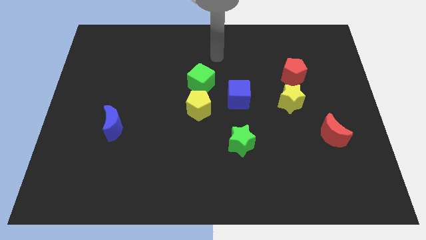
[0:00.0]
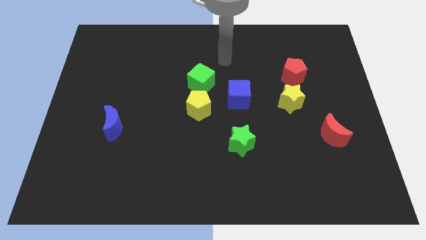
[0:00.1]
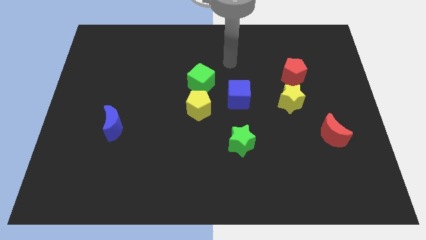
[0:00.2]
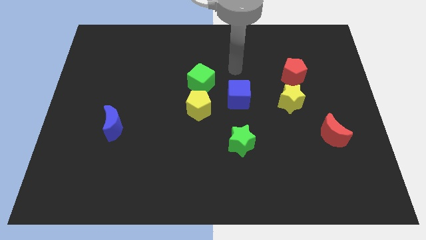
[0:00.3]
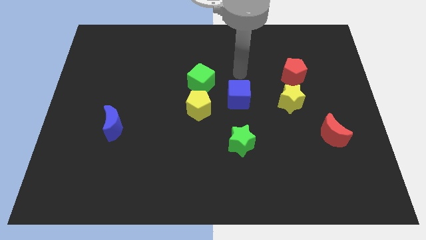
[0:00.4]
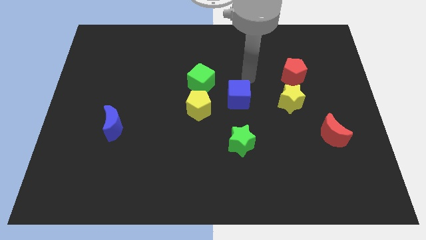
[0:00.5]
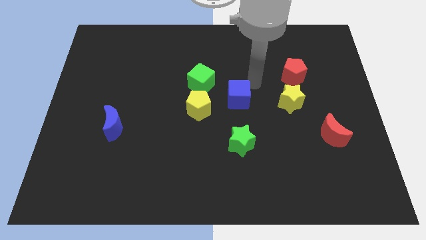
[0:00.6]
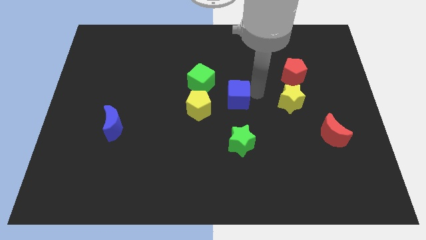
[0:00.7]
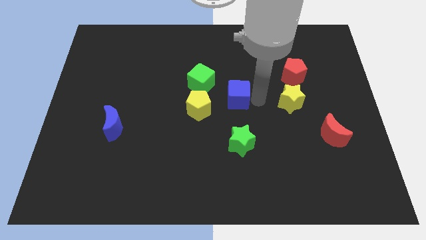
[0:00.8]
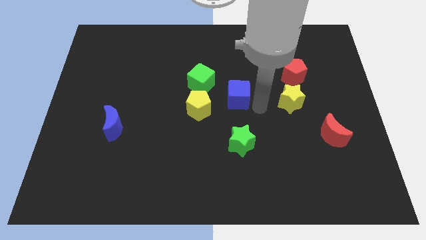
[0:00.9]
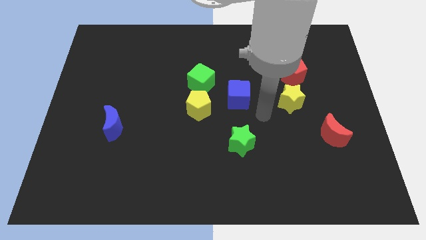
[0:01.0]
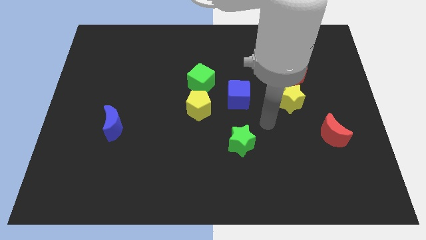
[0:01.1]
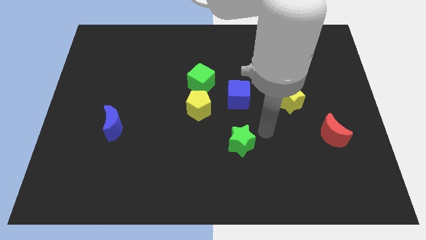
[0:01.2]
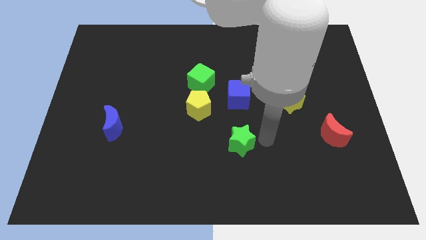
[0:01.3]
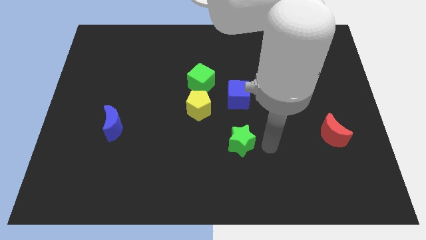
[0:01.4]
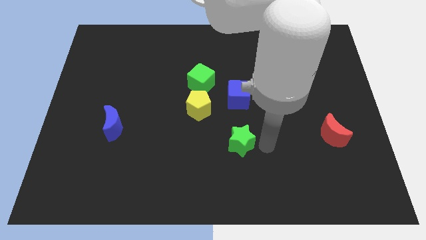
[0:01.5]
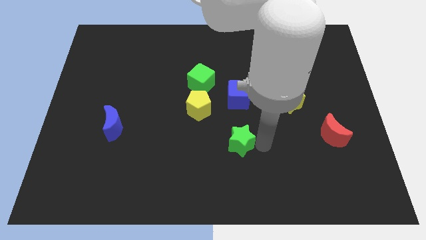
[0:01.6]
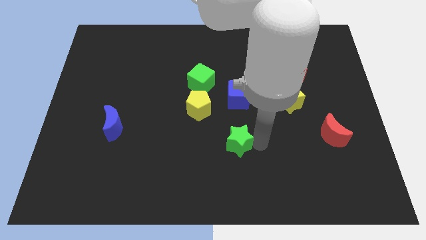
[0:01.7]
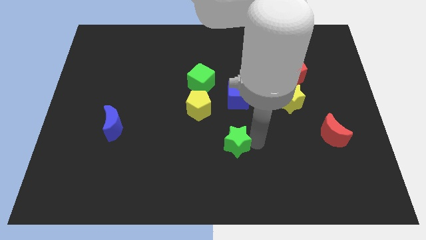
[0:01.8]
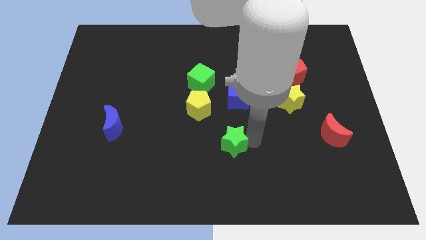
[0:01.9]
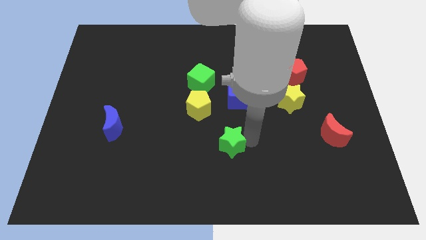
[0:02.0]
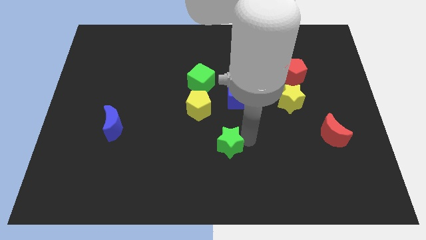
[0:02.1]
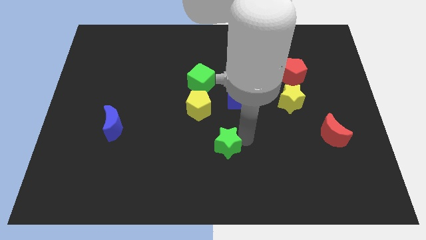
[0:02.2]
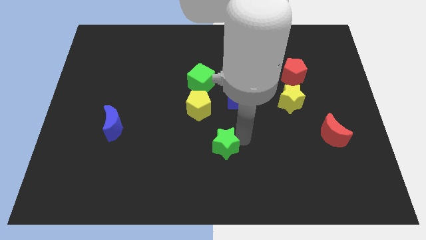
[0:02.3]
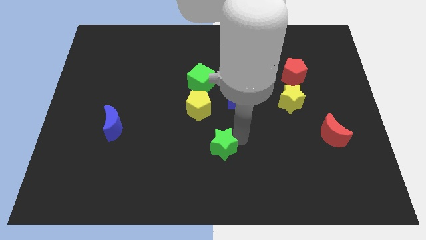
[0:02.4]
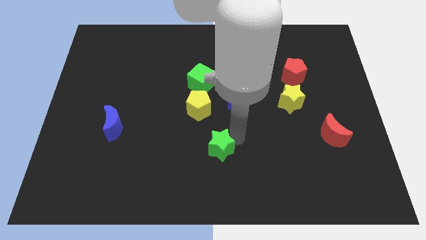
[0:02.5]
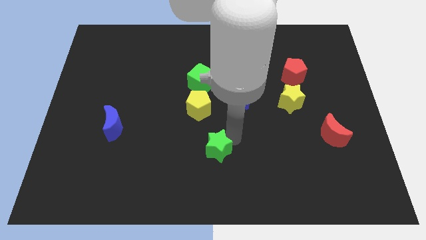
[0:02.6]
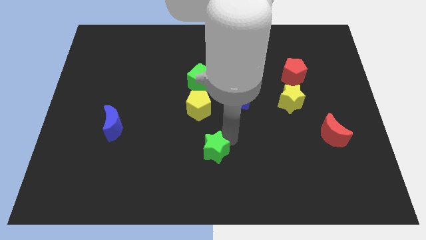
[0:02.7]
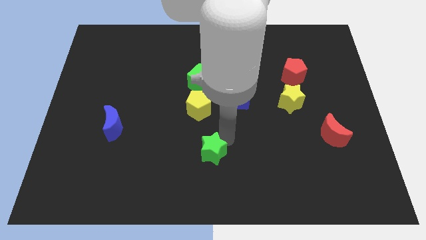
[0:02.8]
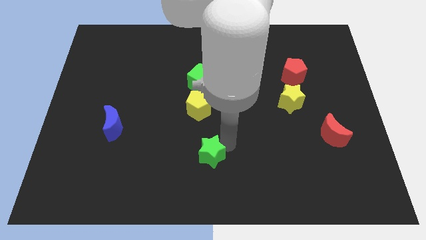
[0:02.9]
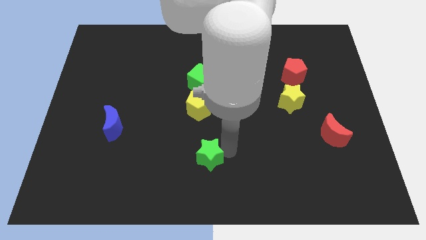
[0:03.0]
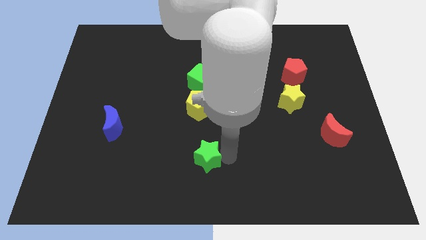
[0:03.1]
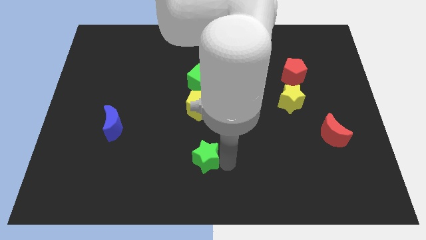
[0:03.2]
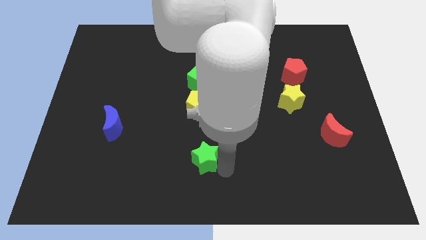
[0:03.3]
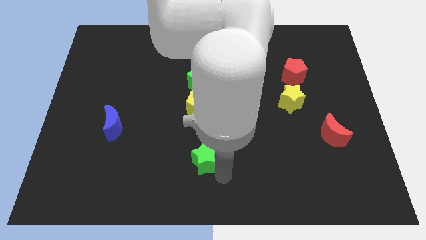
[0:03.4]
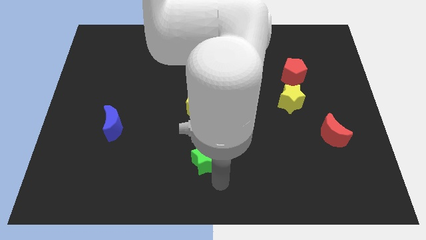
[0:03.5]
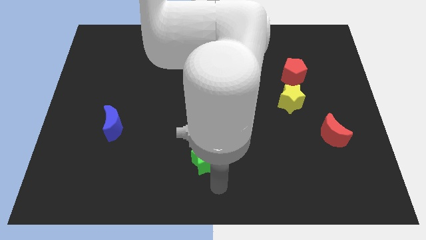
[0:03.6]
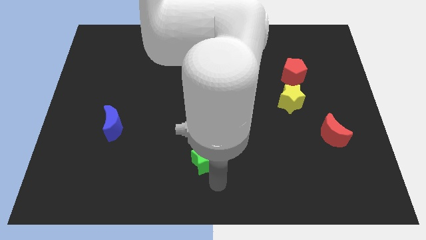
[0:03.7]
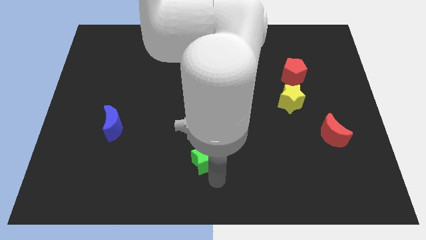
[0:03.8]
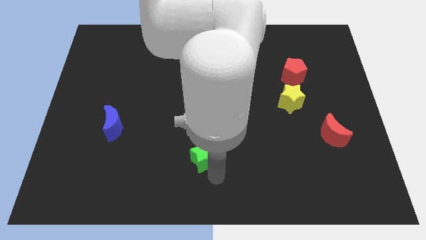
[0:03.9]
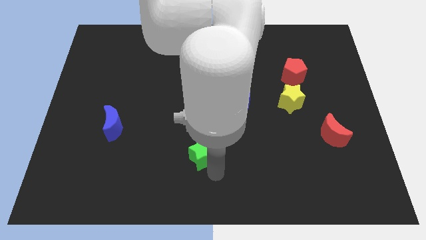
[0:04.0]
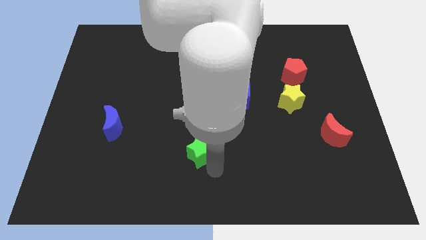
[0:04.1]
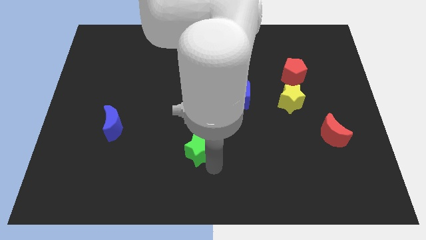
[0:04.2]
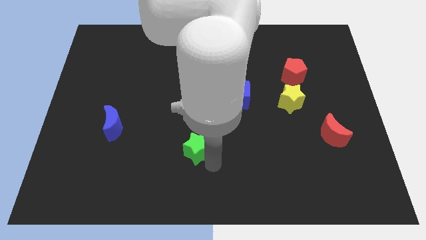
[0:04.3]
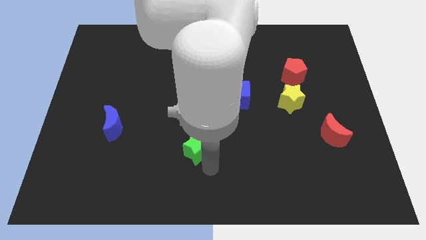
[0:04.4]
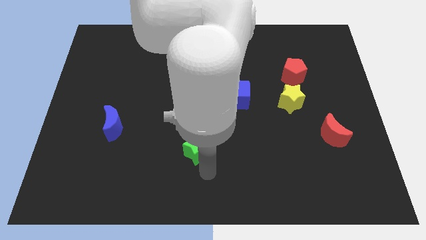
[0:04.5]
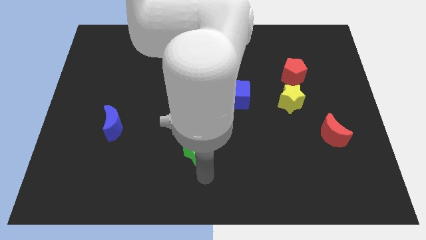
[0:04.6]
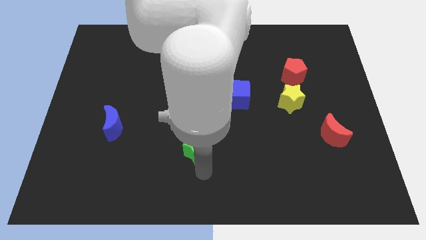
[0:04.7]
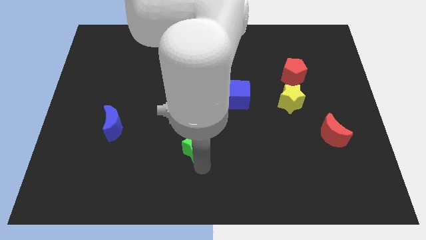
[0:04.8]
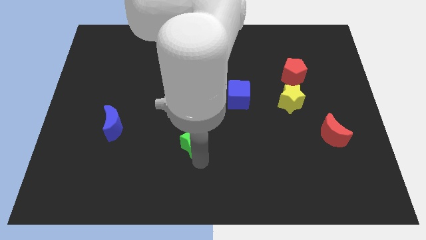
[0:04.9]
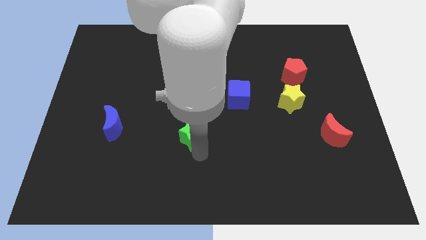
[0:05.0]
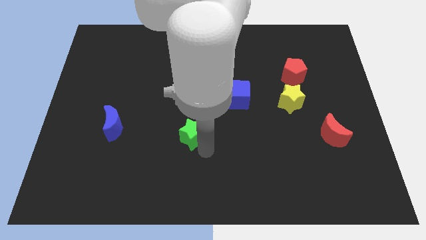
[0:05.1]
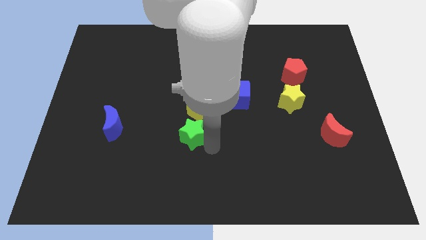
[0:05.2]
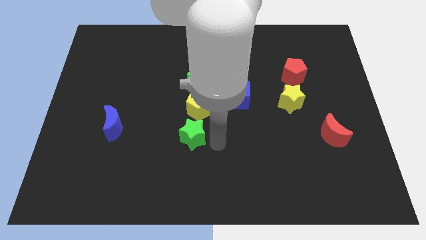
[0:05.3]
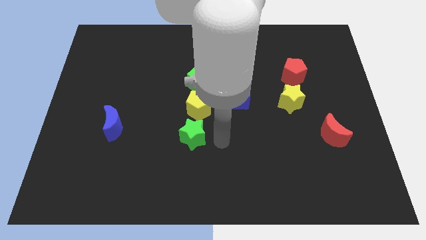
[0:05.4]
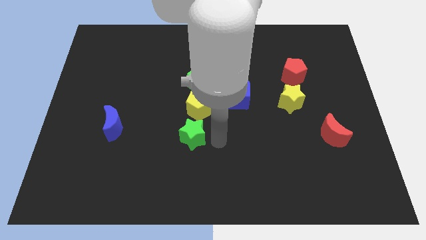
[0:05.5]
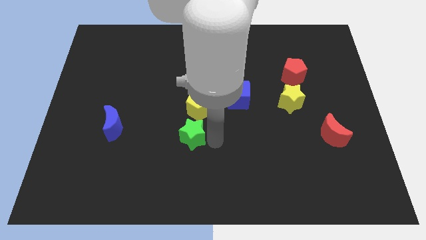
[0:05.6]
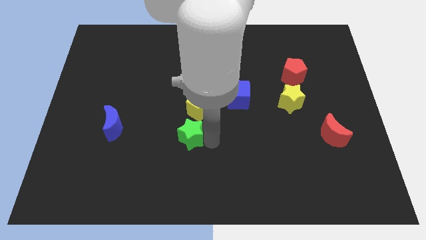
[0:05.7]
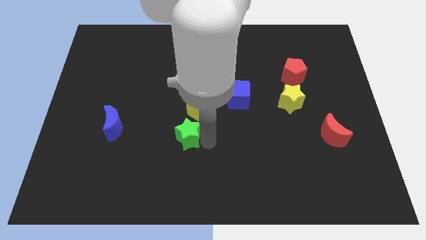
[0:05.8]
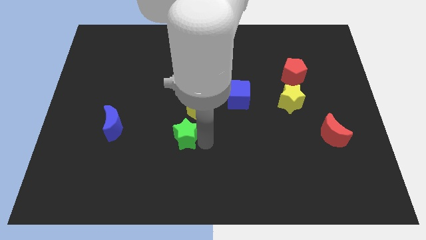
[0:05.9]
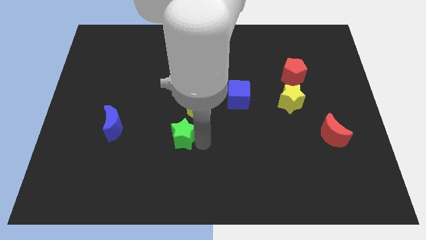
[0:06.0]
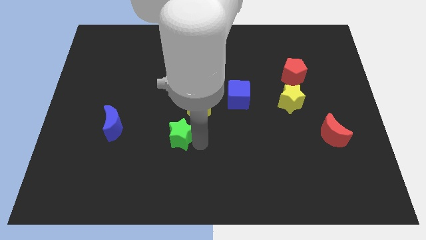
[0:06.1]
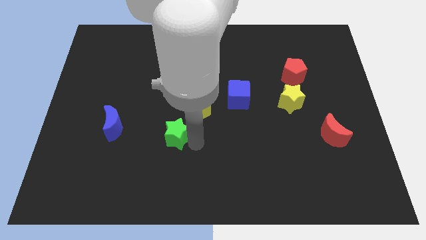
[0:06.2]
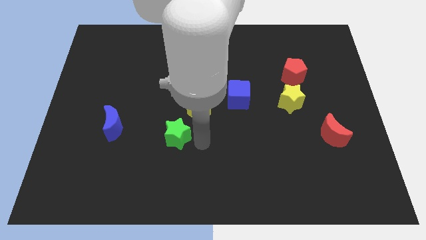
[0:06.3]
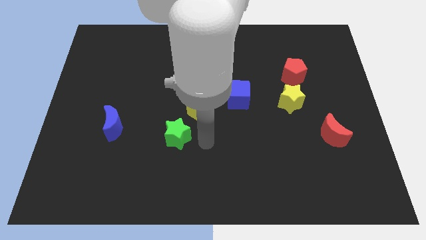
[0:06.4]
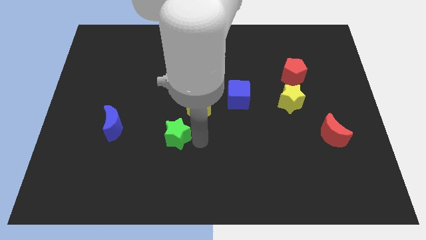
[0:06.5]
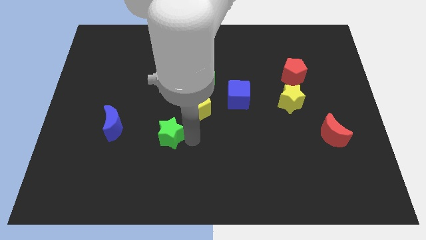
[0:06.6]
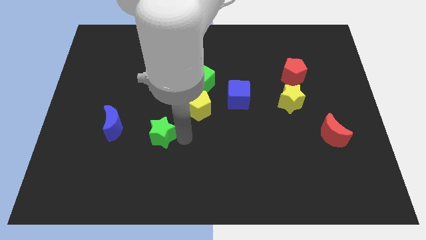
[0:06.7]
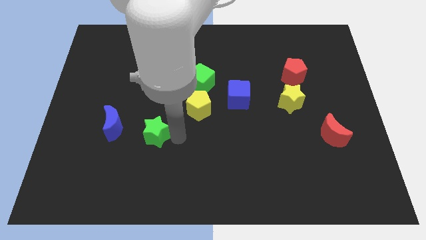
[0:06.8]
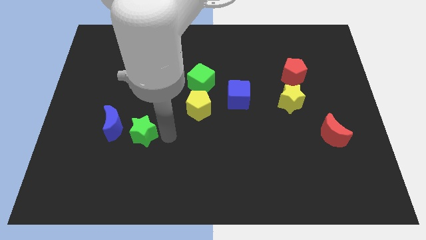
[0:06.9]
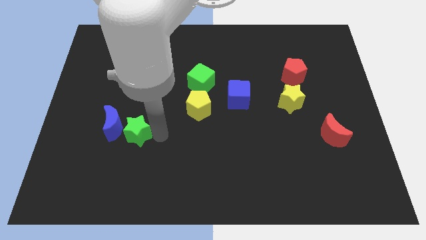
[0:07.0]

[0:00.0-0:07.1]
move the green star to the blue moon
